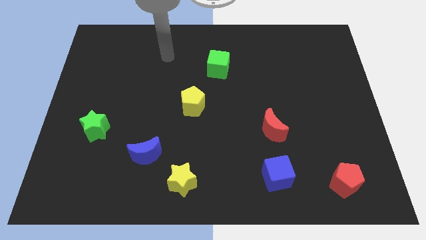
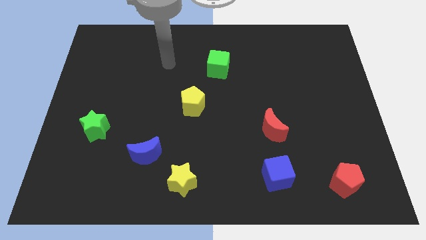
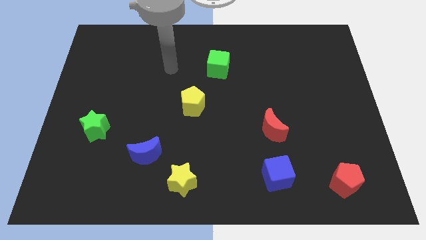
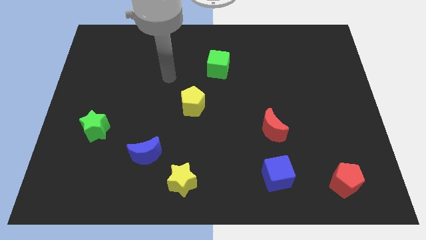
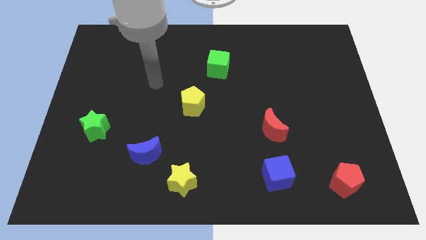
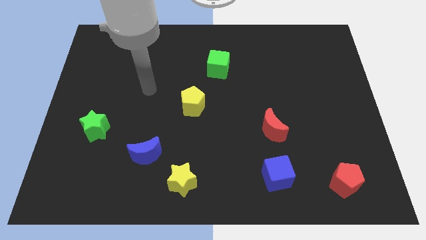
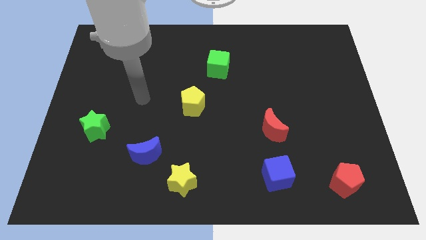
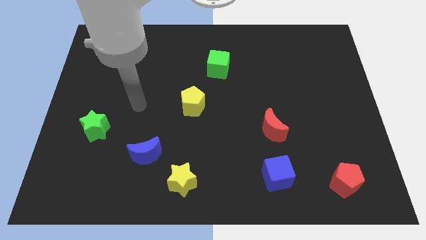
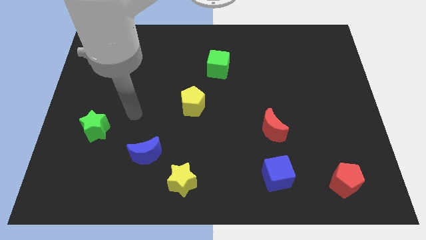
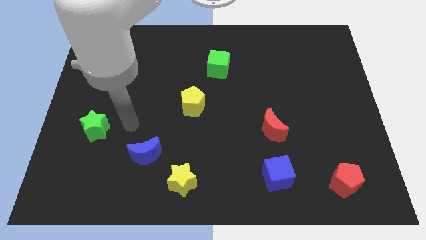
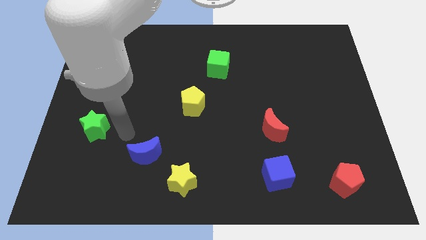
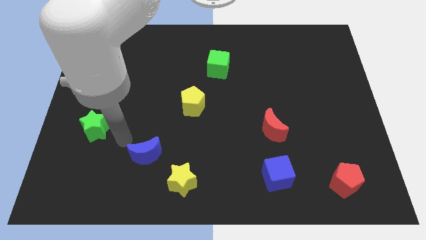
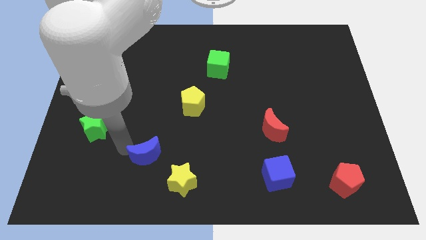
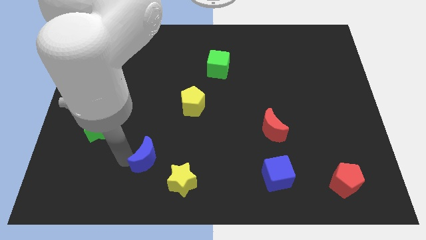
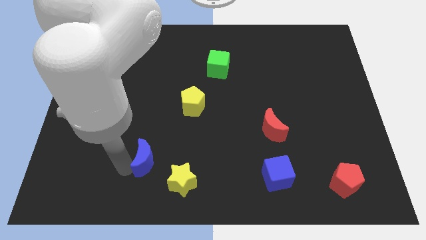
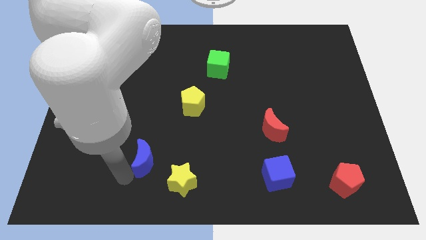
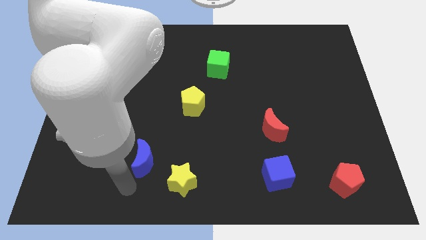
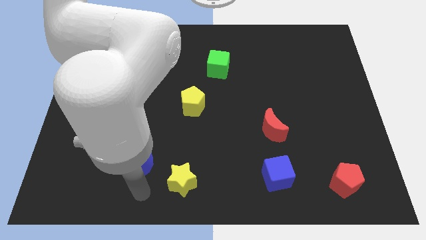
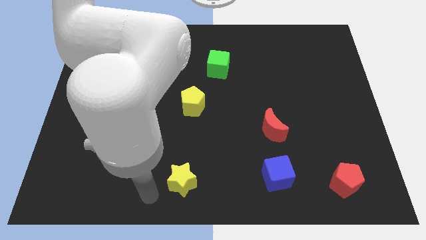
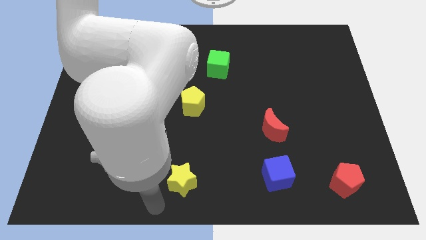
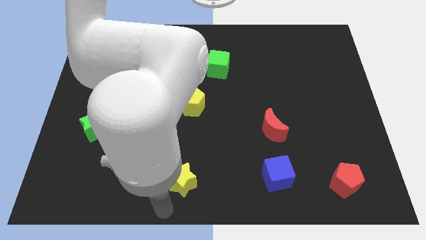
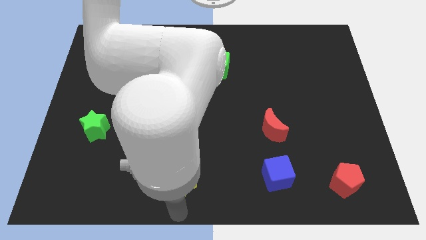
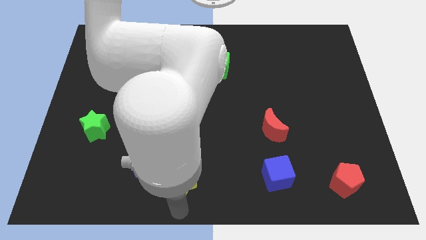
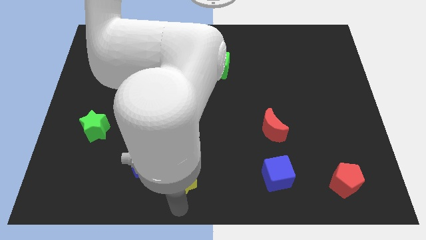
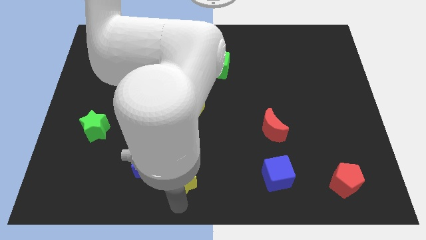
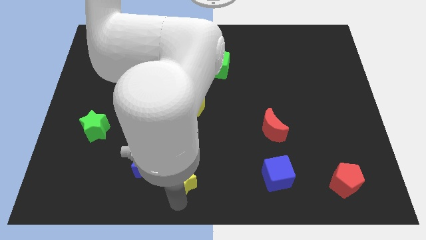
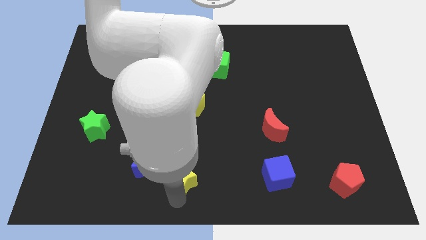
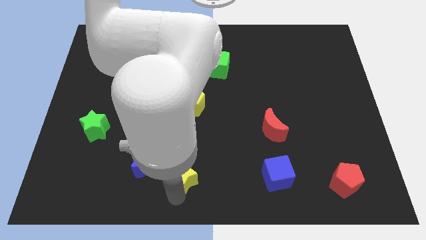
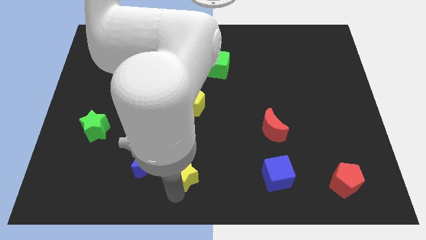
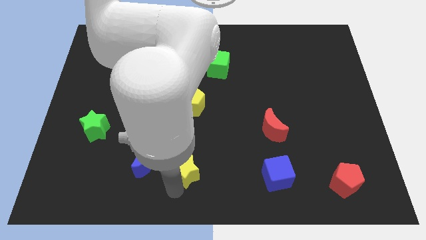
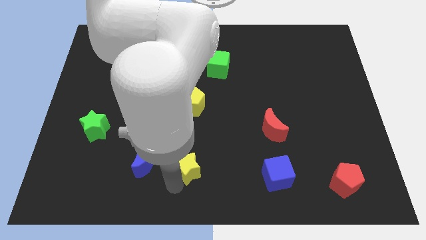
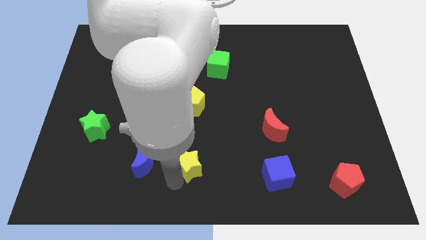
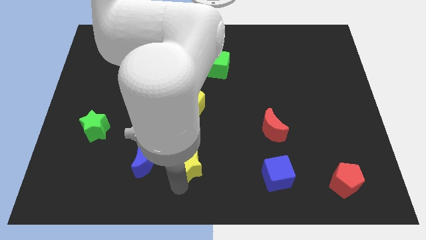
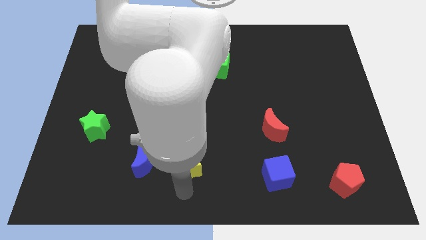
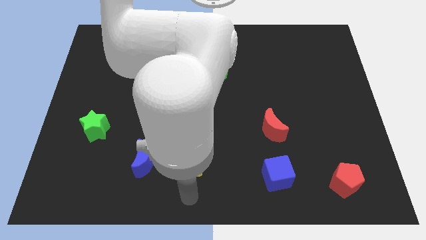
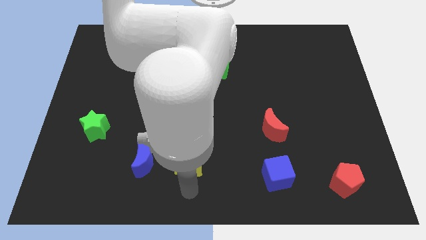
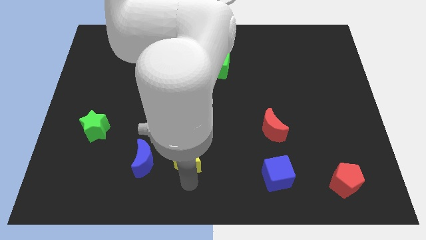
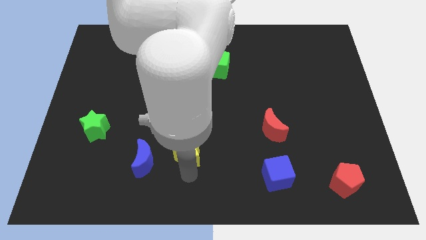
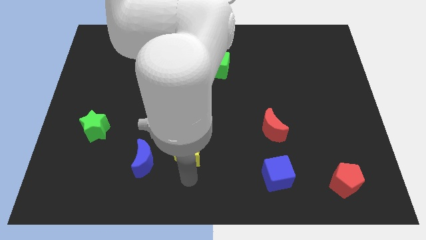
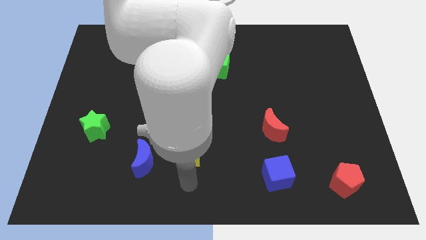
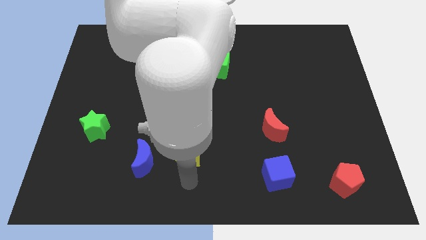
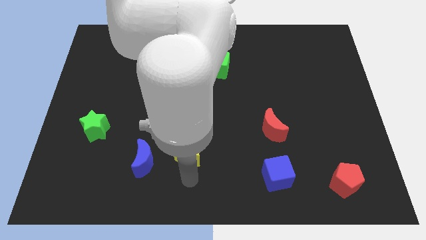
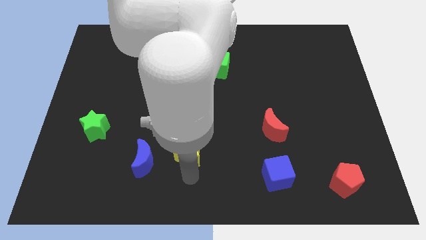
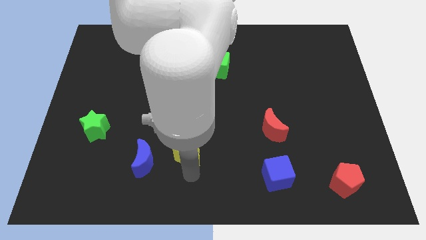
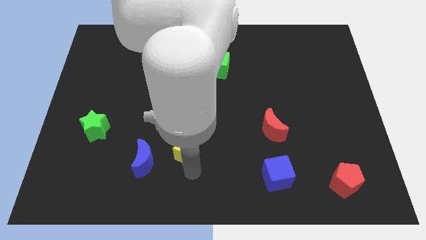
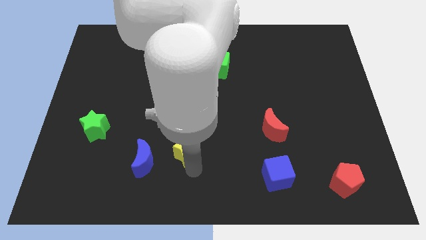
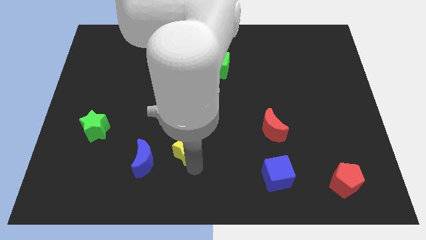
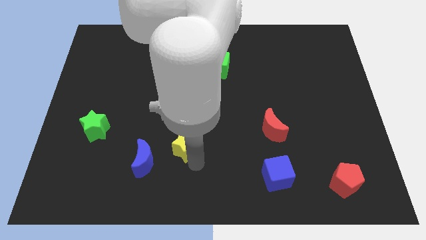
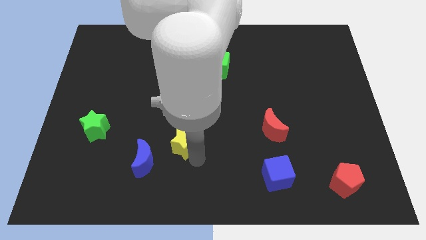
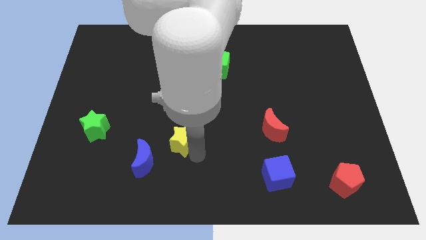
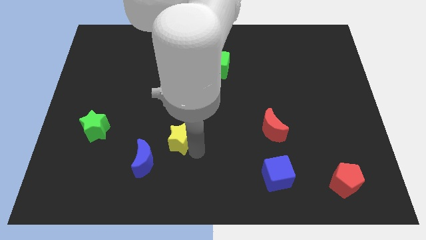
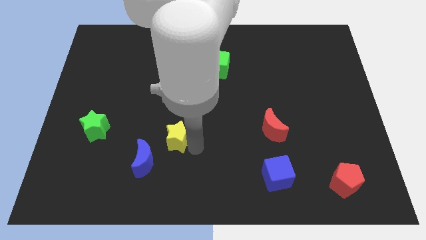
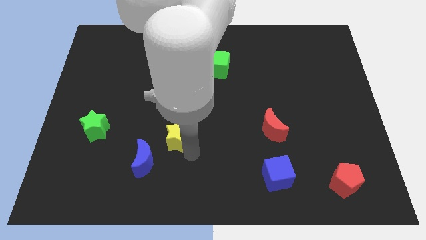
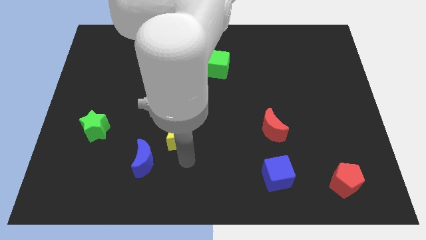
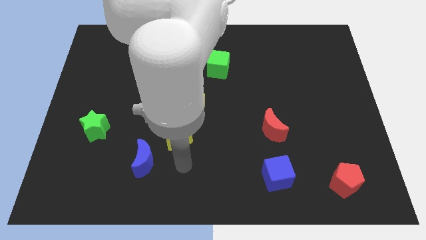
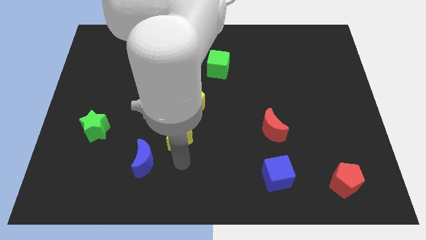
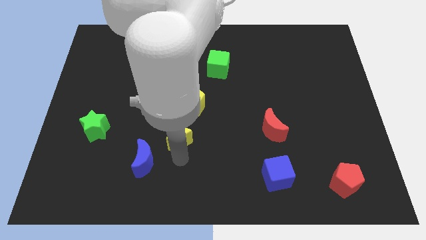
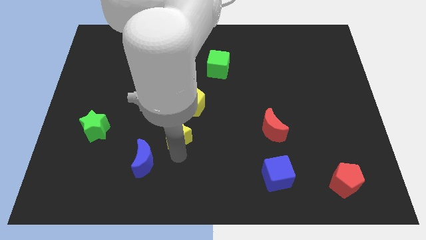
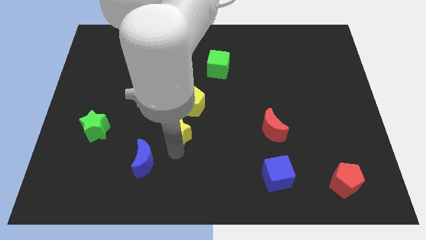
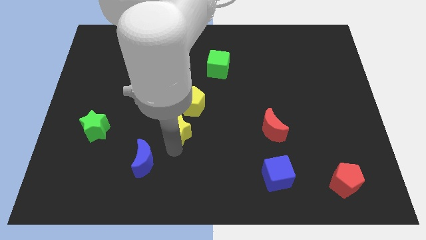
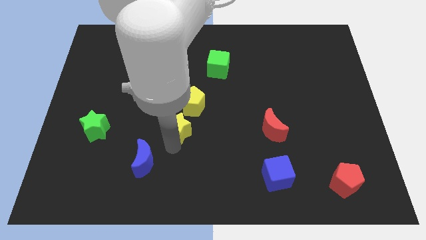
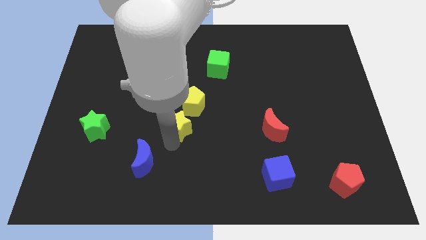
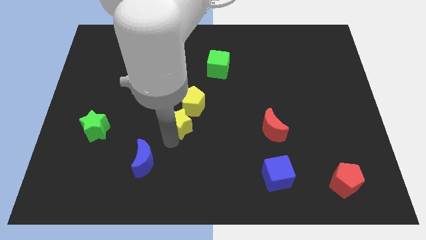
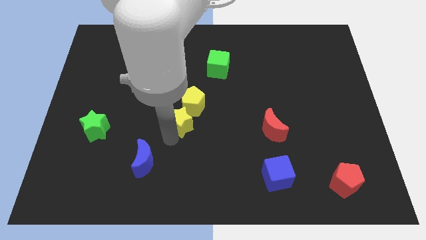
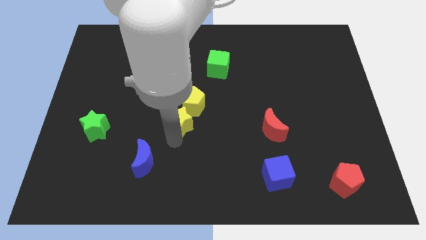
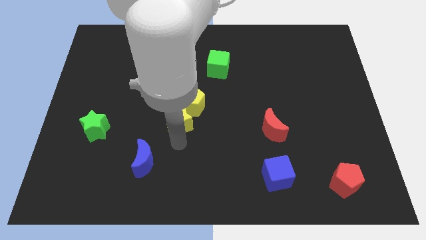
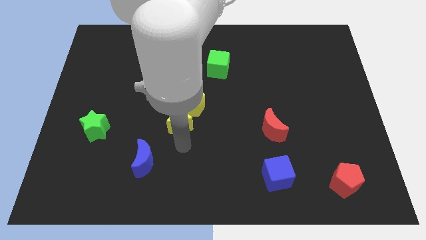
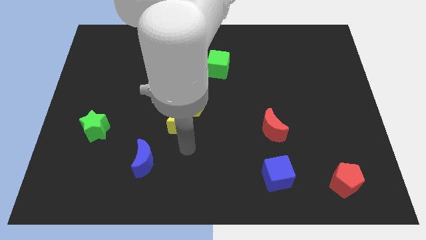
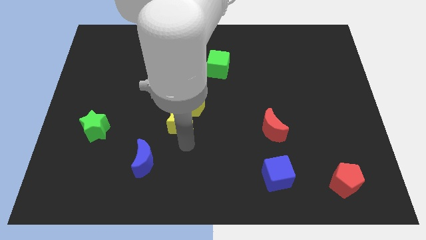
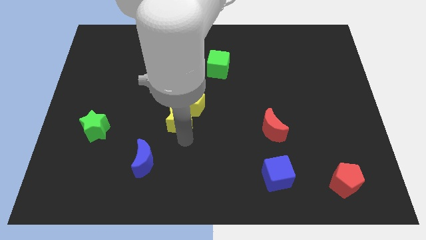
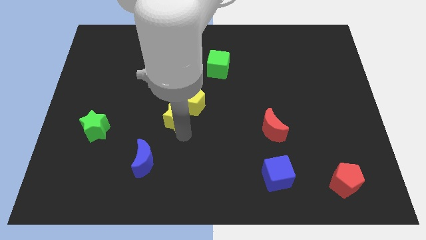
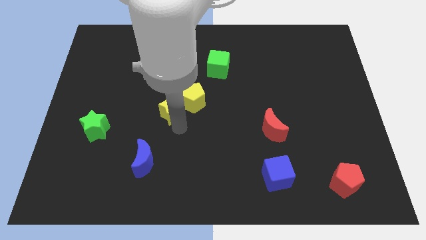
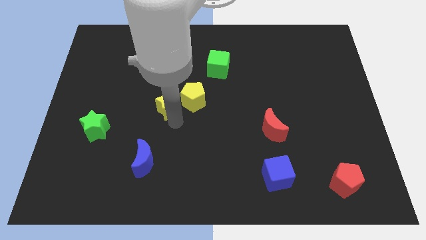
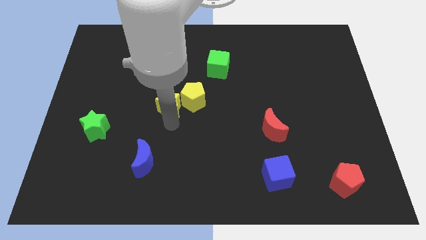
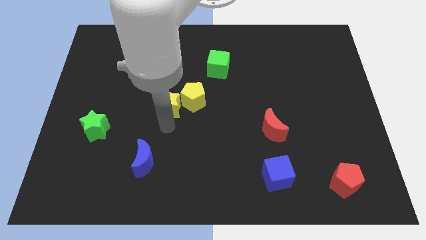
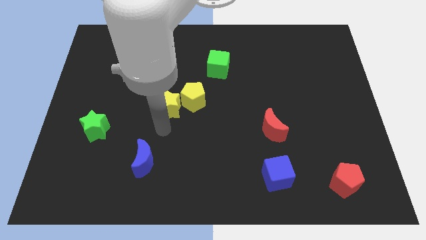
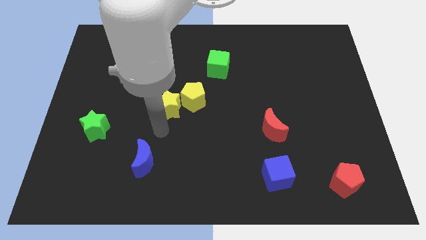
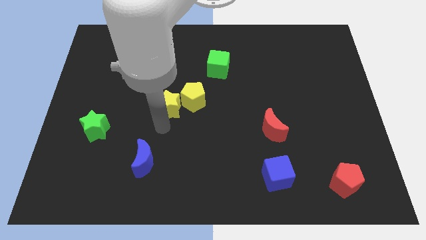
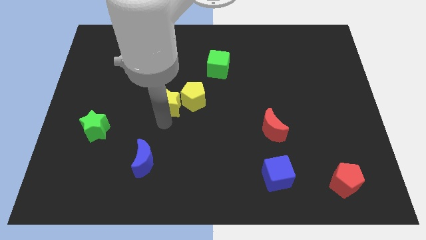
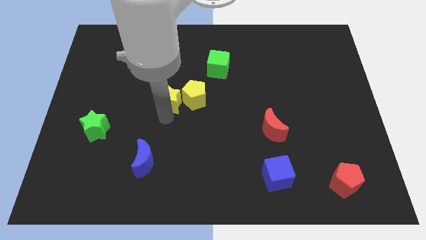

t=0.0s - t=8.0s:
slide the yellow star upwards
